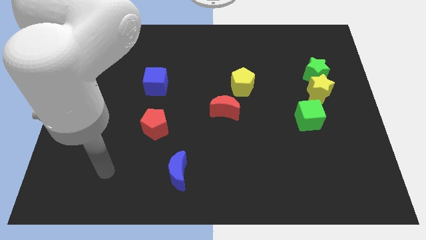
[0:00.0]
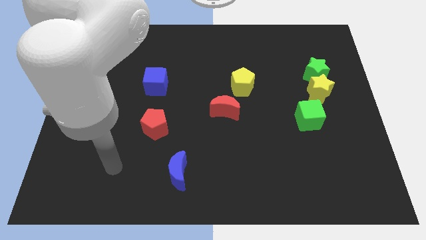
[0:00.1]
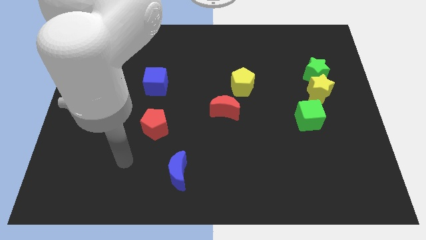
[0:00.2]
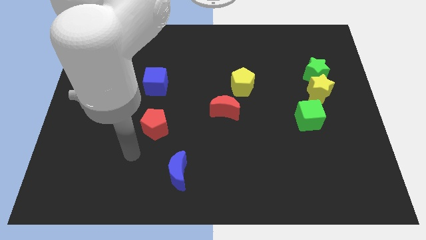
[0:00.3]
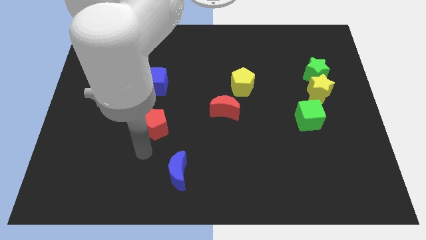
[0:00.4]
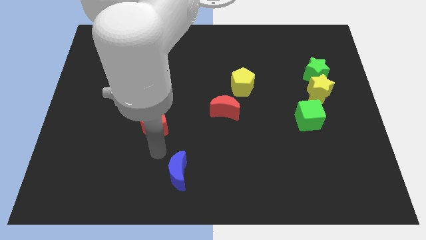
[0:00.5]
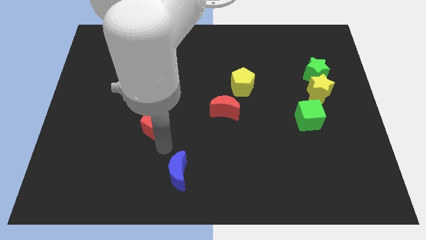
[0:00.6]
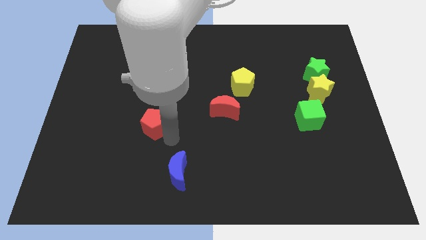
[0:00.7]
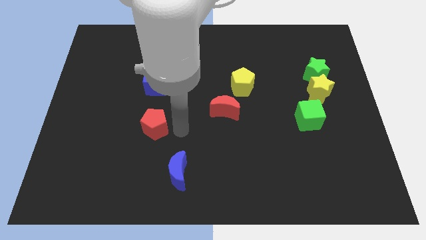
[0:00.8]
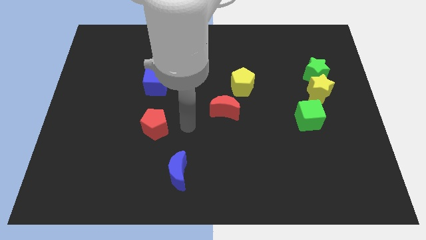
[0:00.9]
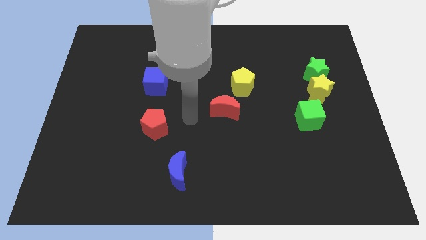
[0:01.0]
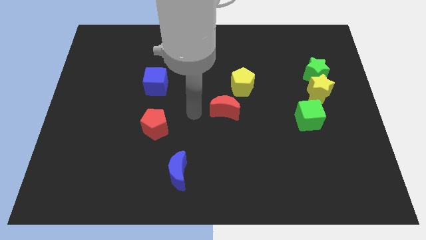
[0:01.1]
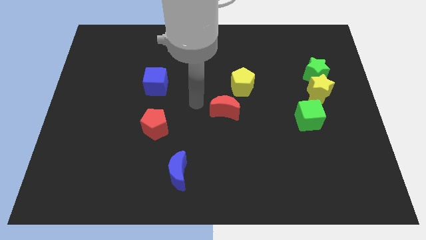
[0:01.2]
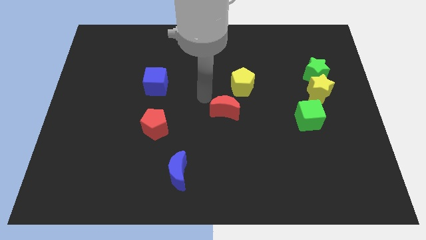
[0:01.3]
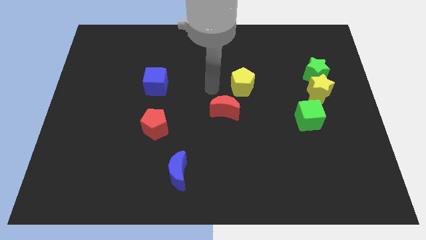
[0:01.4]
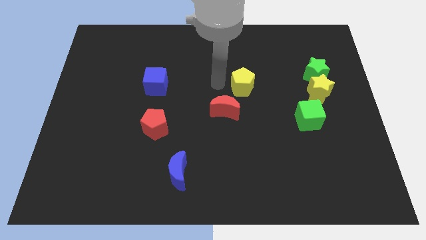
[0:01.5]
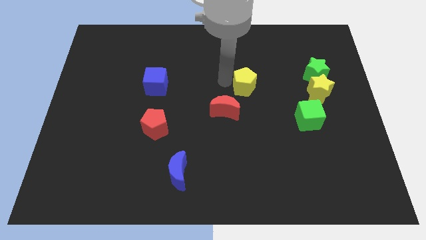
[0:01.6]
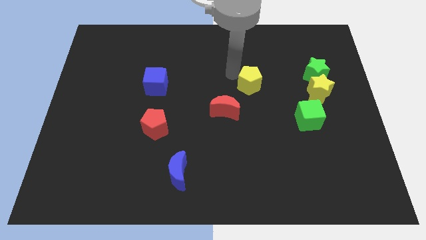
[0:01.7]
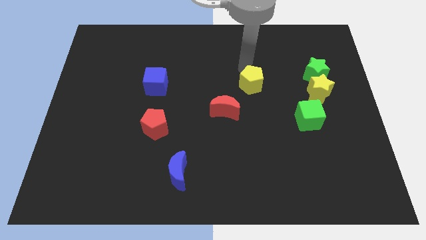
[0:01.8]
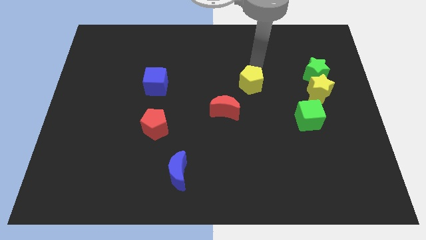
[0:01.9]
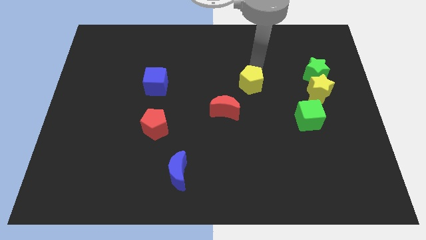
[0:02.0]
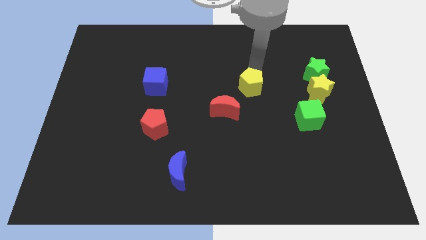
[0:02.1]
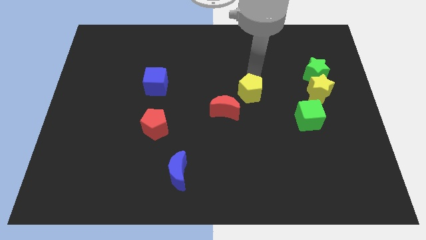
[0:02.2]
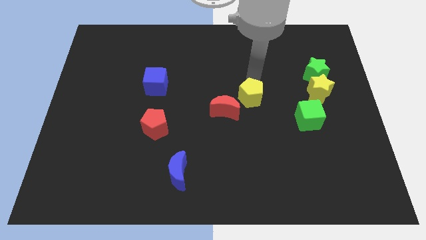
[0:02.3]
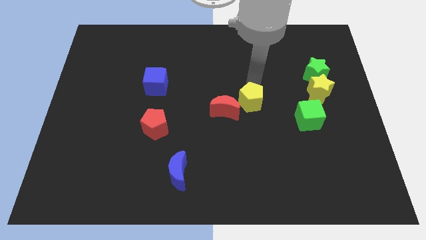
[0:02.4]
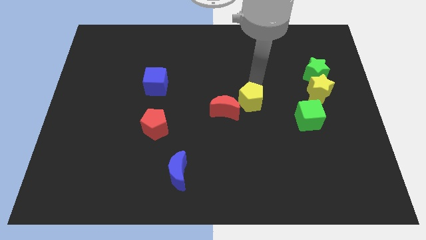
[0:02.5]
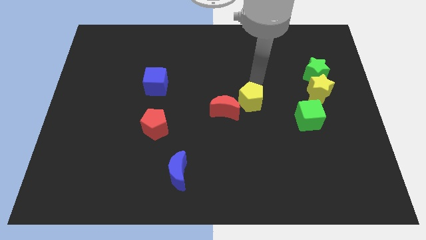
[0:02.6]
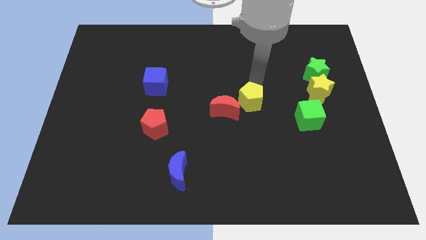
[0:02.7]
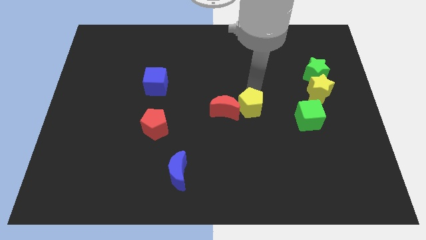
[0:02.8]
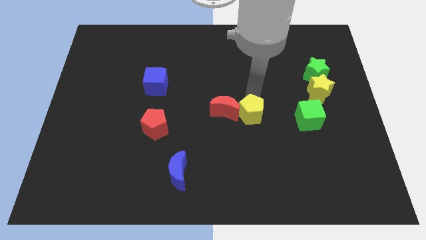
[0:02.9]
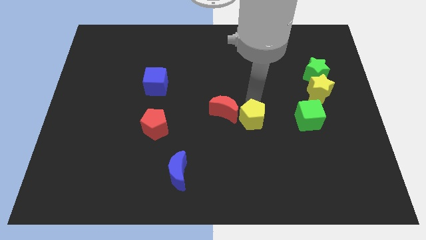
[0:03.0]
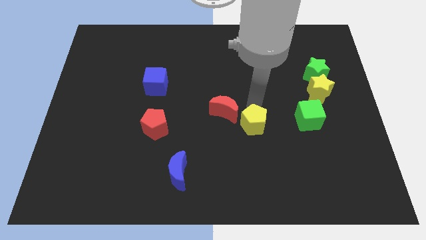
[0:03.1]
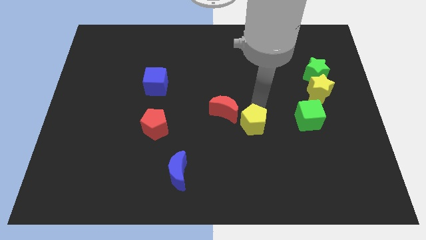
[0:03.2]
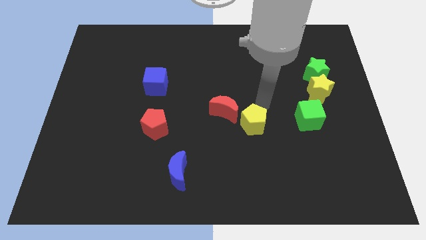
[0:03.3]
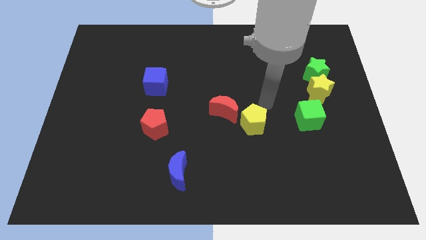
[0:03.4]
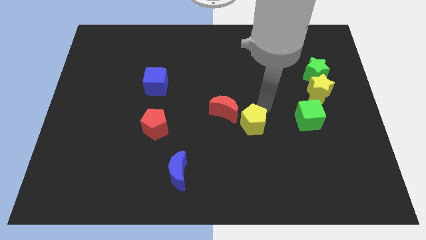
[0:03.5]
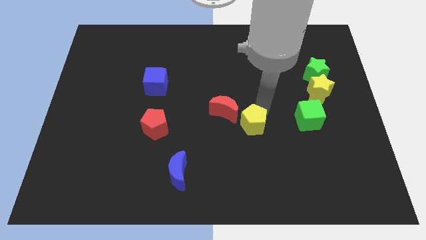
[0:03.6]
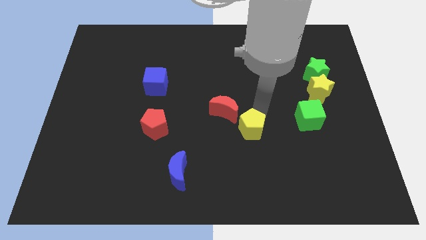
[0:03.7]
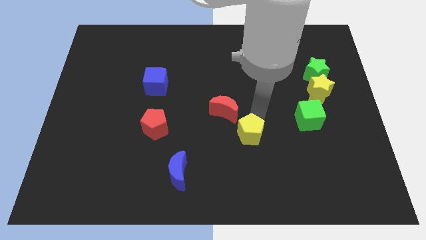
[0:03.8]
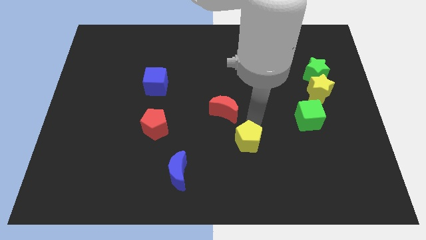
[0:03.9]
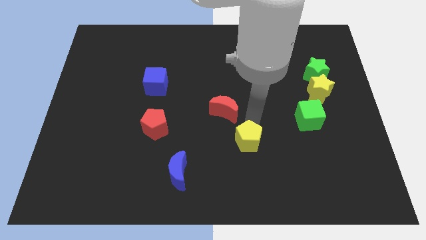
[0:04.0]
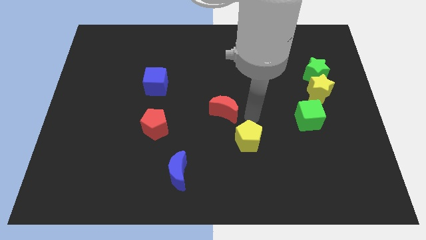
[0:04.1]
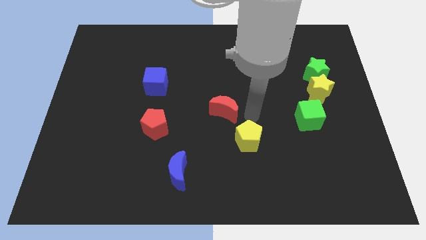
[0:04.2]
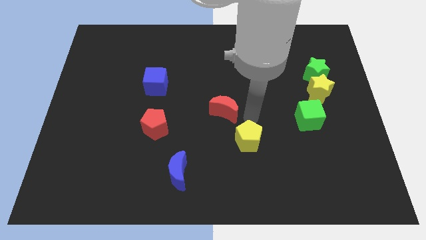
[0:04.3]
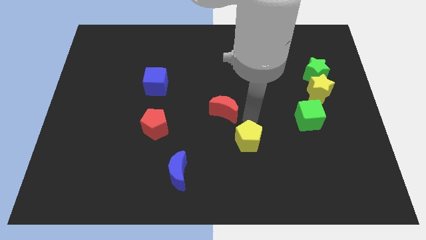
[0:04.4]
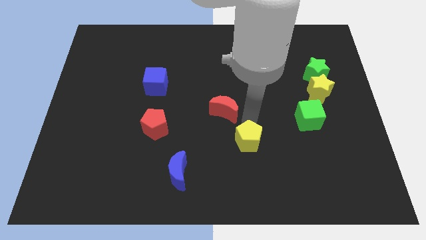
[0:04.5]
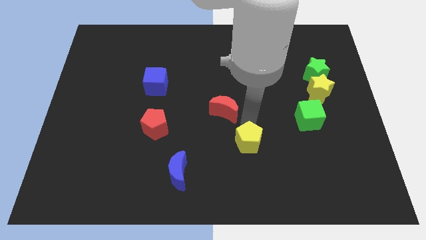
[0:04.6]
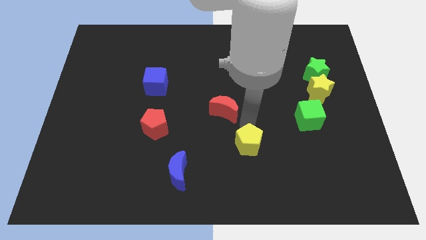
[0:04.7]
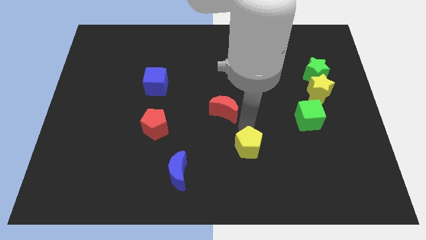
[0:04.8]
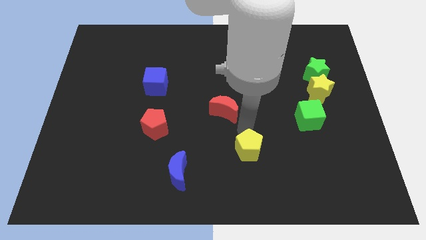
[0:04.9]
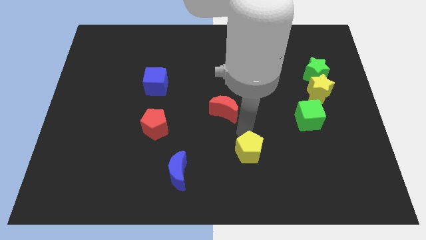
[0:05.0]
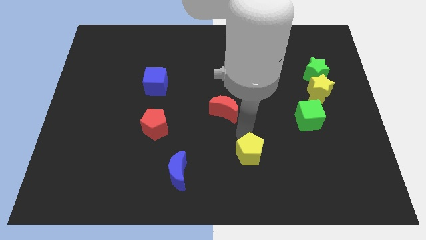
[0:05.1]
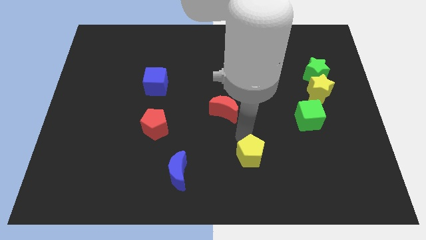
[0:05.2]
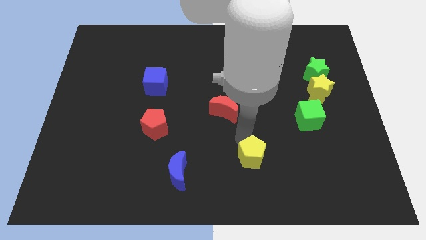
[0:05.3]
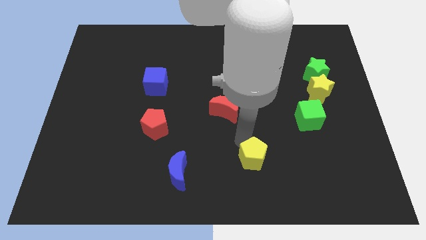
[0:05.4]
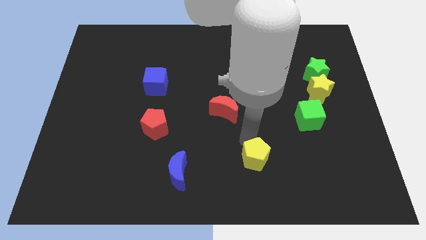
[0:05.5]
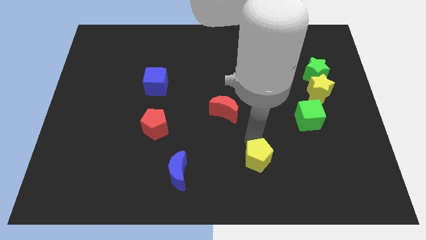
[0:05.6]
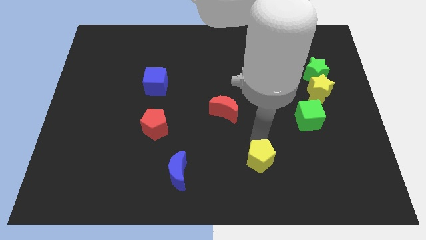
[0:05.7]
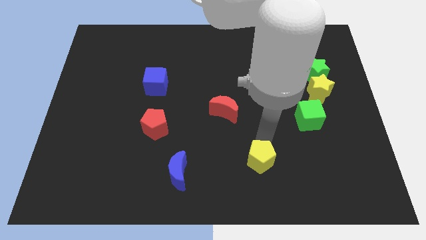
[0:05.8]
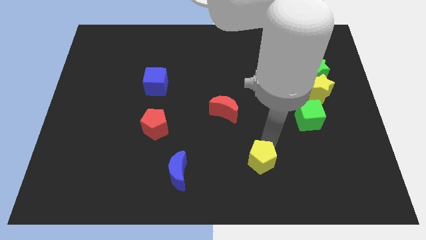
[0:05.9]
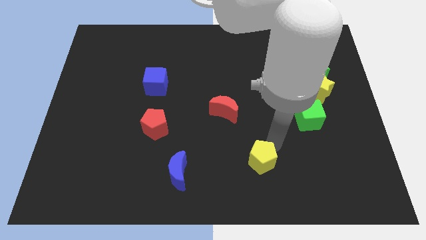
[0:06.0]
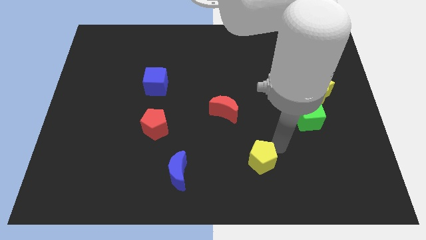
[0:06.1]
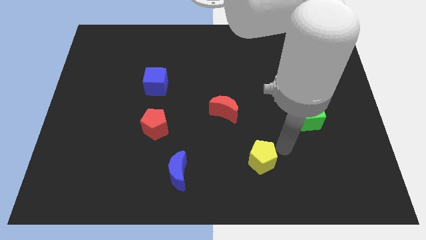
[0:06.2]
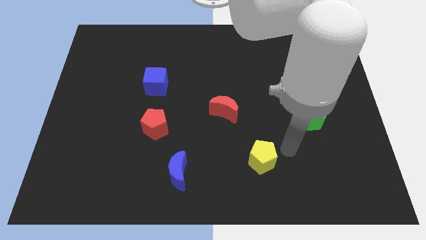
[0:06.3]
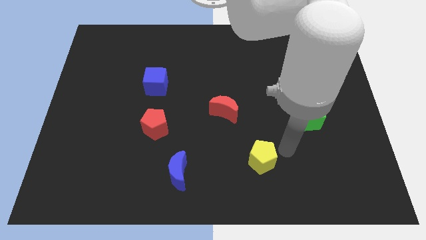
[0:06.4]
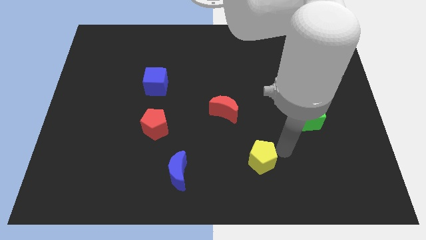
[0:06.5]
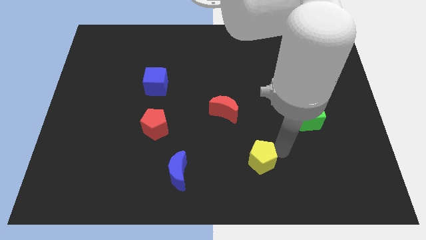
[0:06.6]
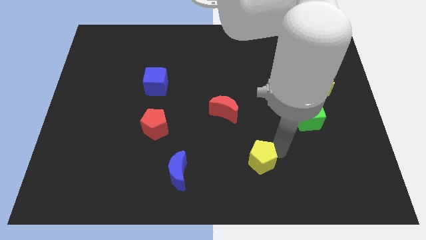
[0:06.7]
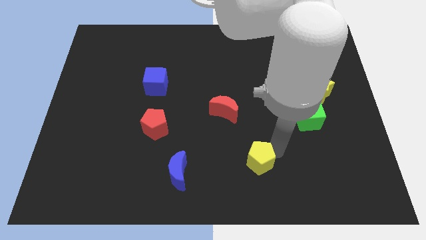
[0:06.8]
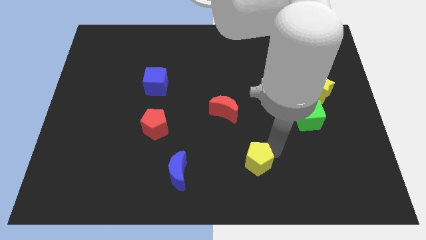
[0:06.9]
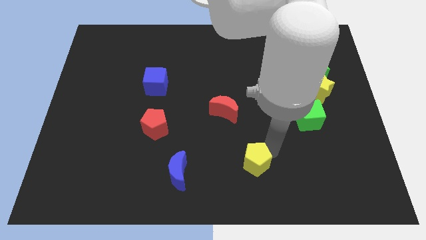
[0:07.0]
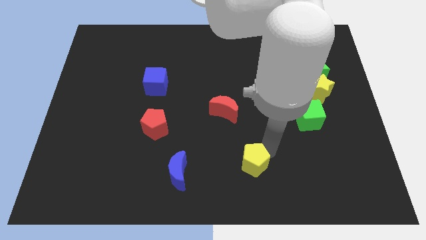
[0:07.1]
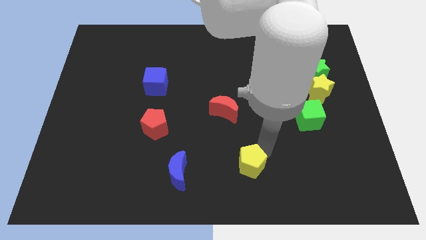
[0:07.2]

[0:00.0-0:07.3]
slide the yellow pentagon to the bottom side
